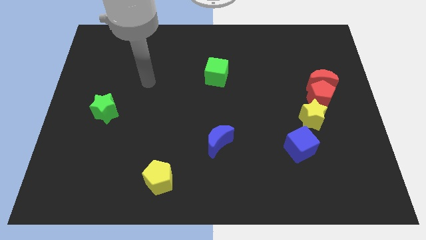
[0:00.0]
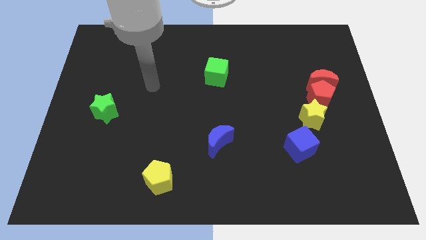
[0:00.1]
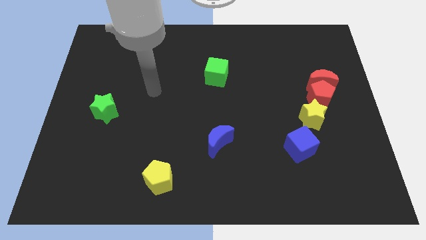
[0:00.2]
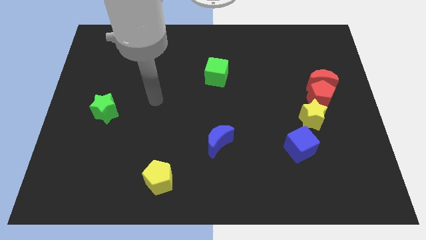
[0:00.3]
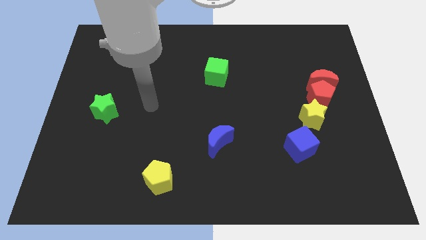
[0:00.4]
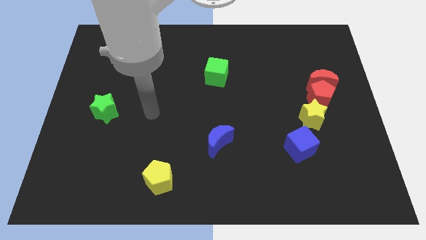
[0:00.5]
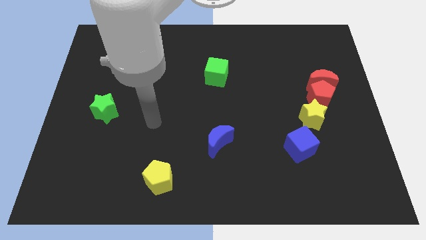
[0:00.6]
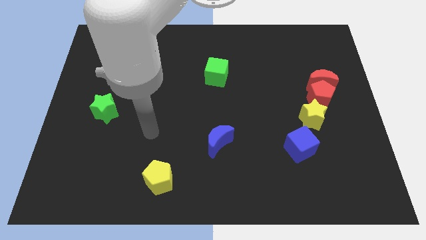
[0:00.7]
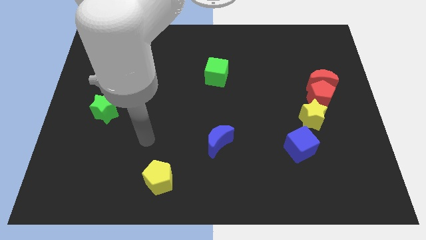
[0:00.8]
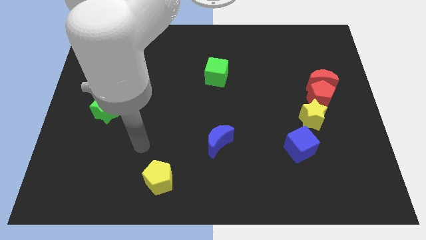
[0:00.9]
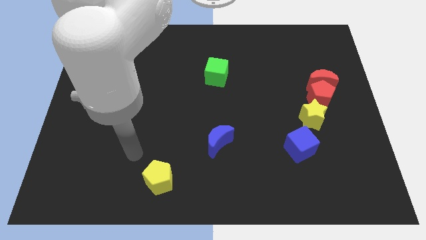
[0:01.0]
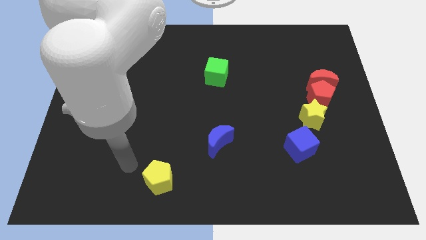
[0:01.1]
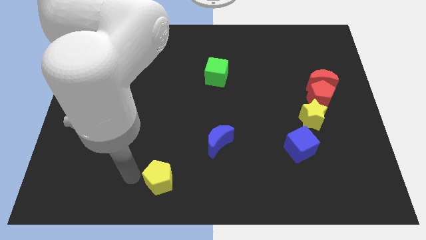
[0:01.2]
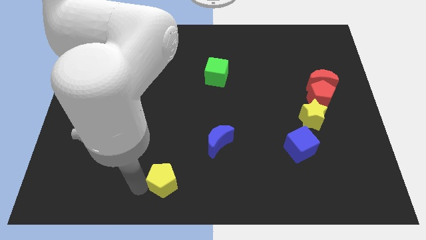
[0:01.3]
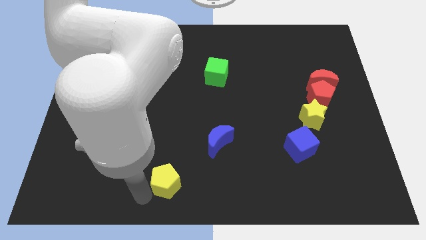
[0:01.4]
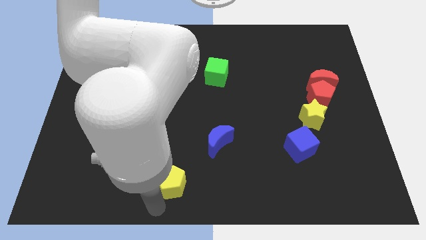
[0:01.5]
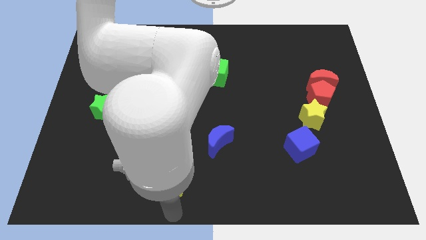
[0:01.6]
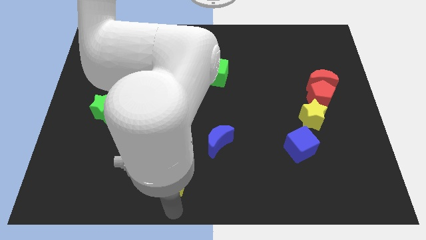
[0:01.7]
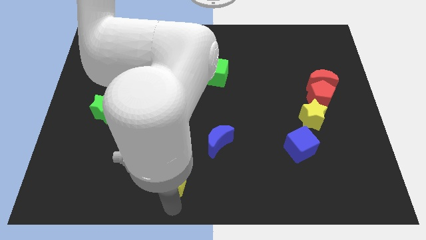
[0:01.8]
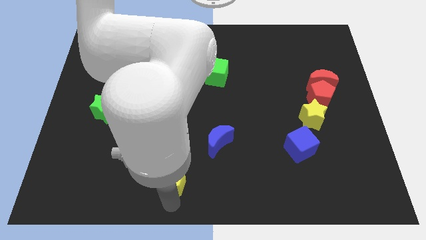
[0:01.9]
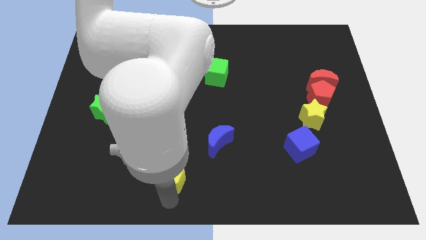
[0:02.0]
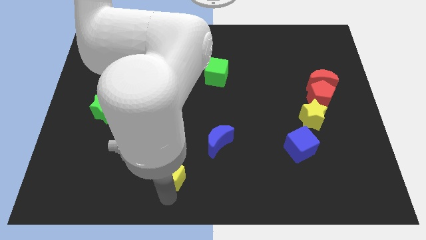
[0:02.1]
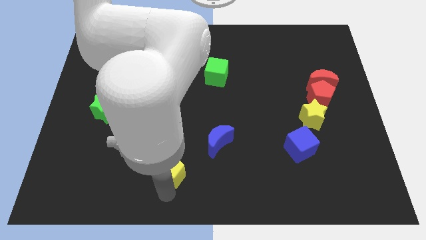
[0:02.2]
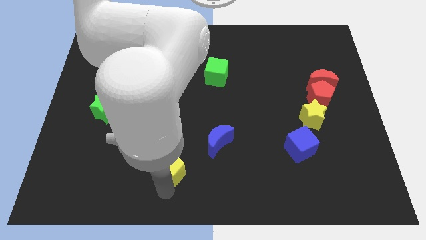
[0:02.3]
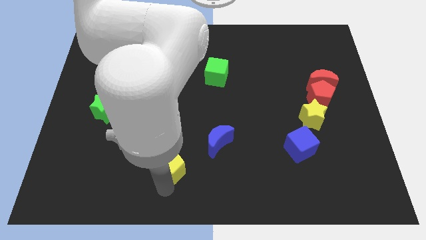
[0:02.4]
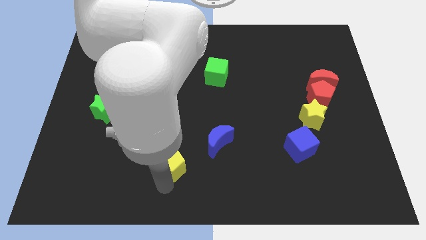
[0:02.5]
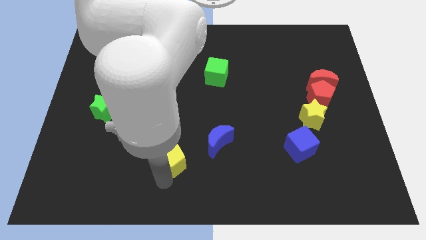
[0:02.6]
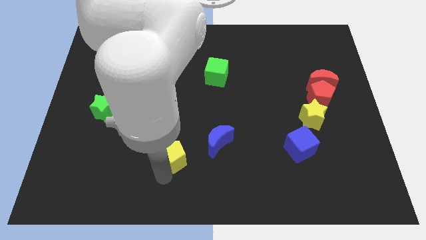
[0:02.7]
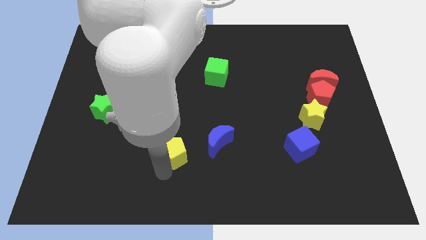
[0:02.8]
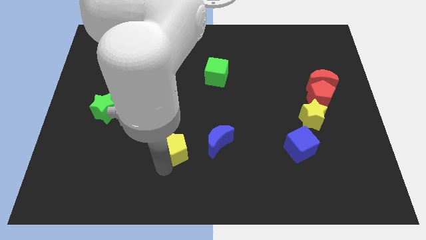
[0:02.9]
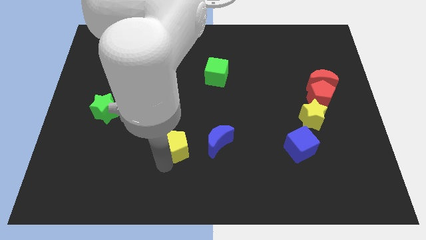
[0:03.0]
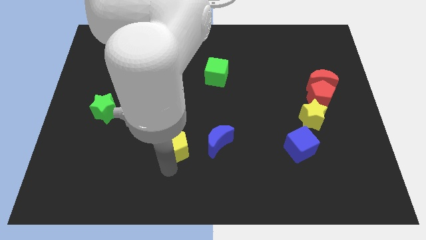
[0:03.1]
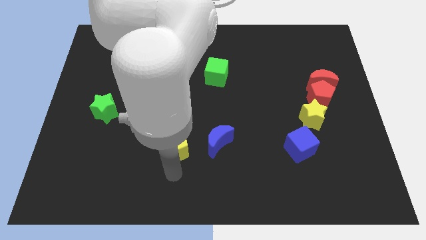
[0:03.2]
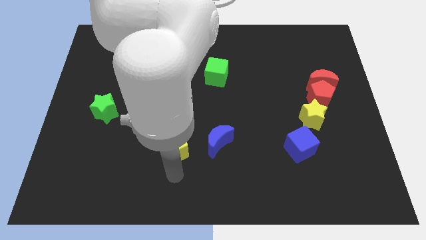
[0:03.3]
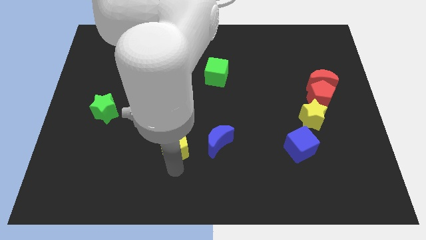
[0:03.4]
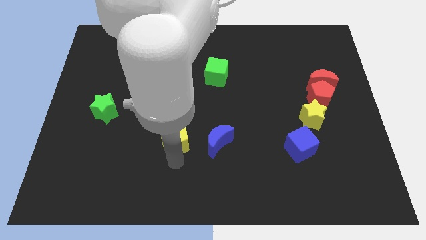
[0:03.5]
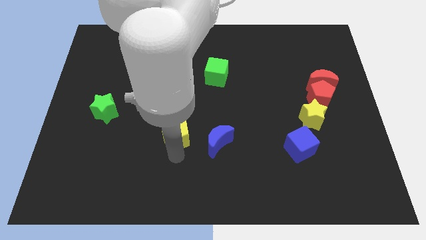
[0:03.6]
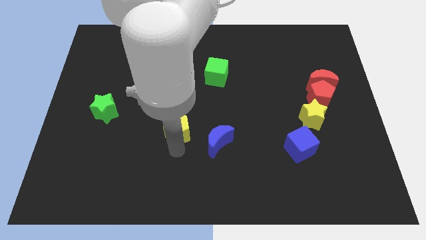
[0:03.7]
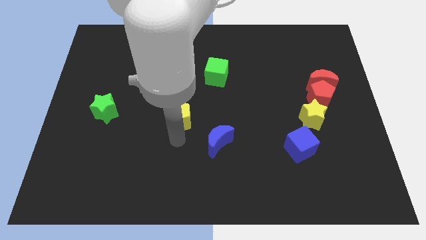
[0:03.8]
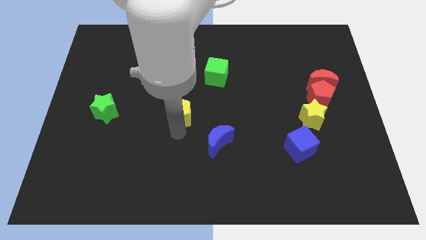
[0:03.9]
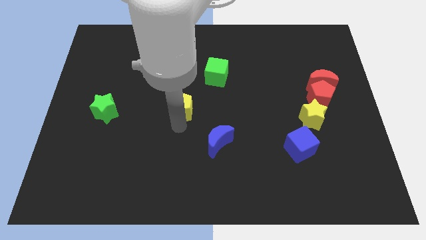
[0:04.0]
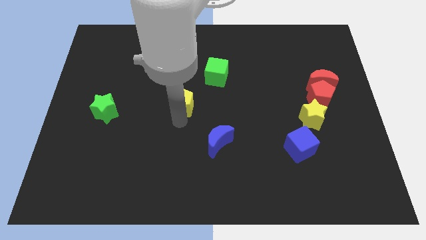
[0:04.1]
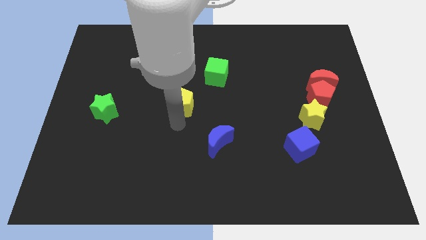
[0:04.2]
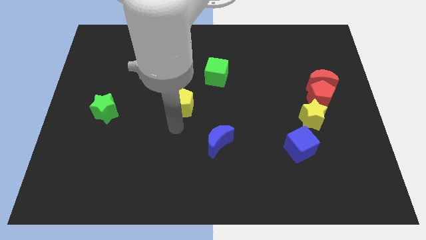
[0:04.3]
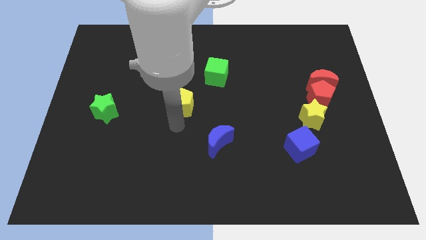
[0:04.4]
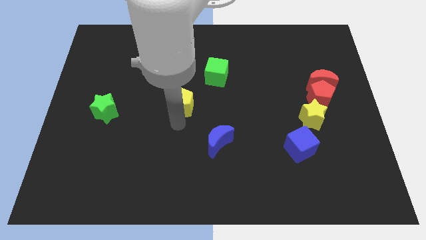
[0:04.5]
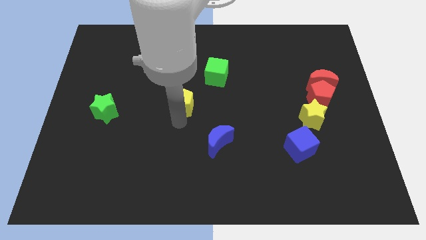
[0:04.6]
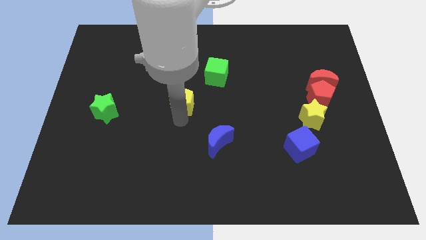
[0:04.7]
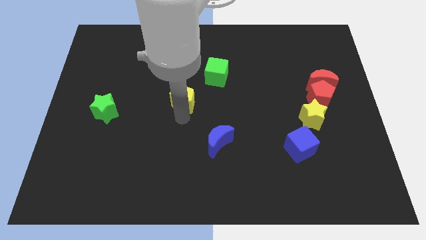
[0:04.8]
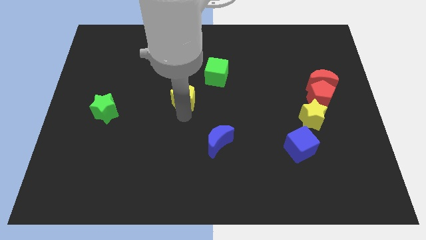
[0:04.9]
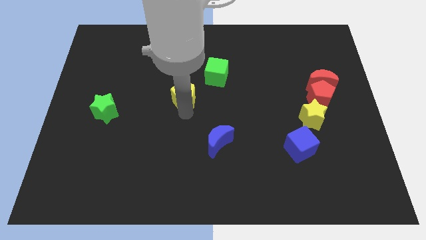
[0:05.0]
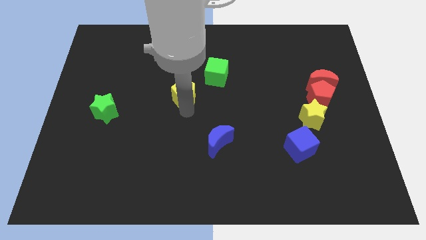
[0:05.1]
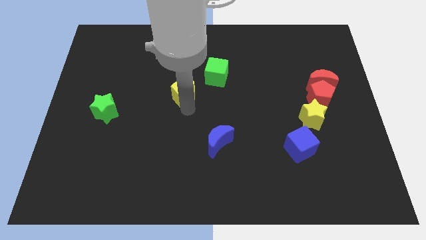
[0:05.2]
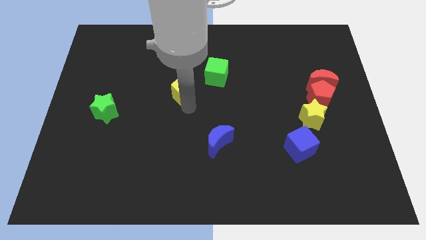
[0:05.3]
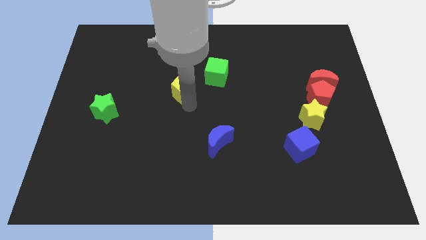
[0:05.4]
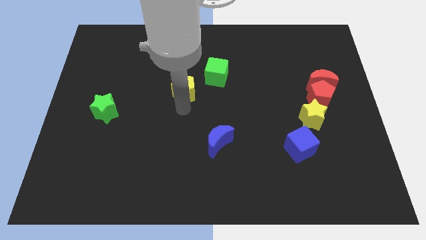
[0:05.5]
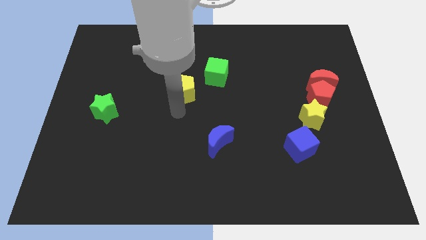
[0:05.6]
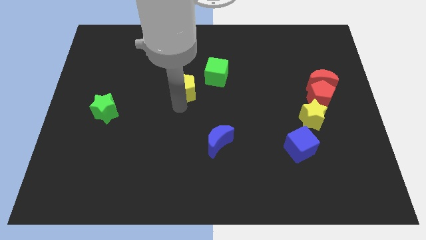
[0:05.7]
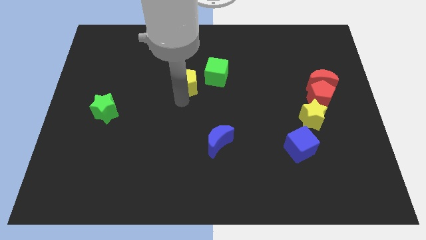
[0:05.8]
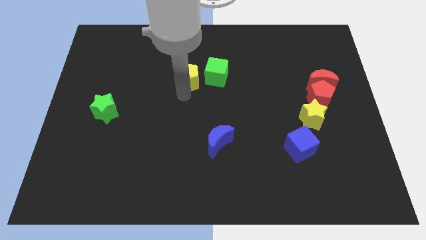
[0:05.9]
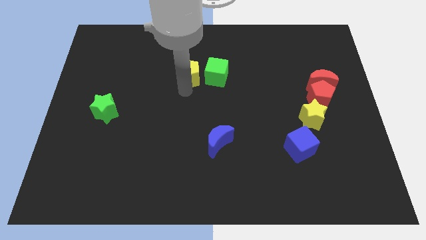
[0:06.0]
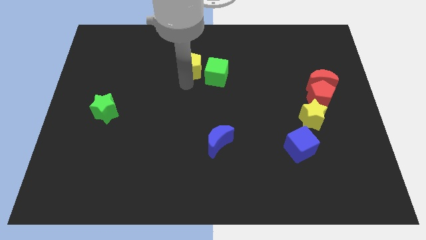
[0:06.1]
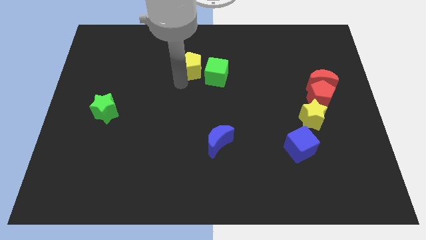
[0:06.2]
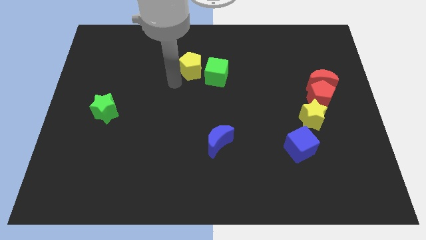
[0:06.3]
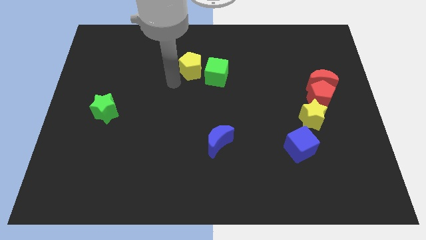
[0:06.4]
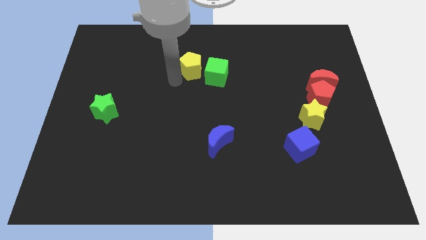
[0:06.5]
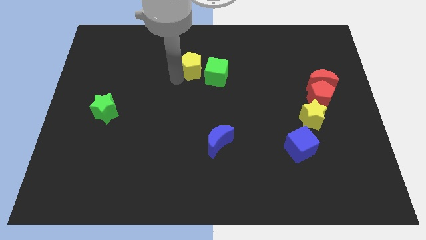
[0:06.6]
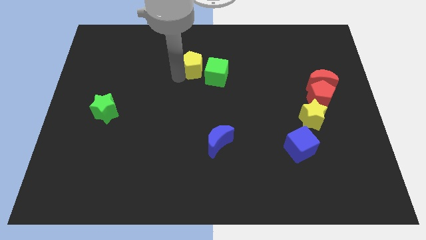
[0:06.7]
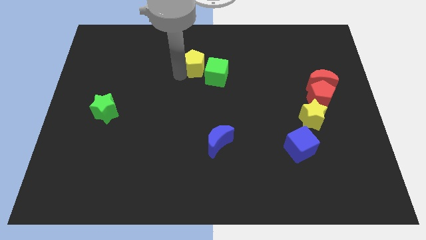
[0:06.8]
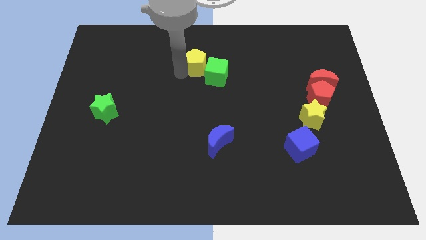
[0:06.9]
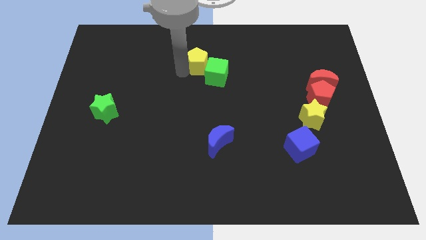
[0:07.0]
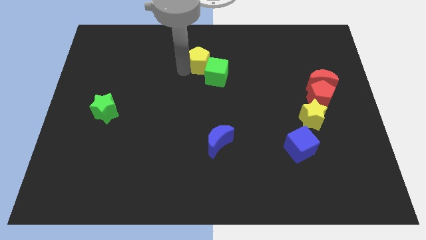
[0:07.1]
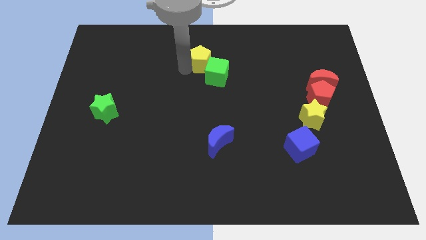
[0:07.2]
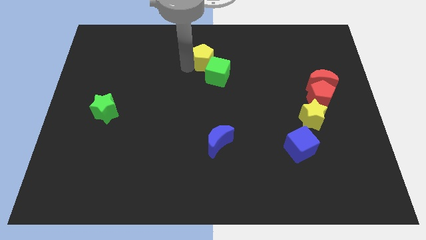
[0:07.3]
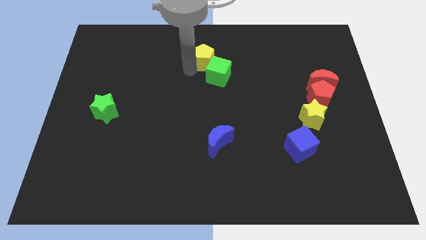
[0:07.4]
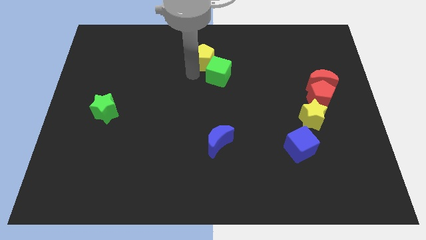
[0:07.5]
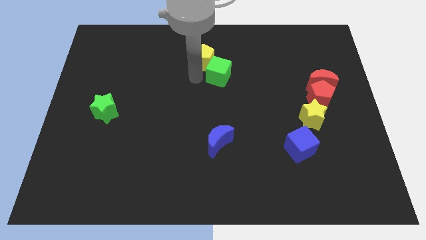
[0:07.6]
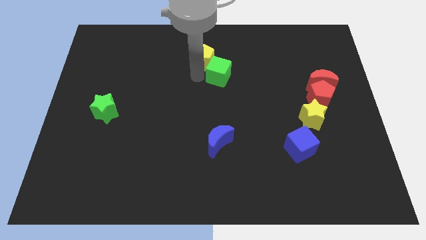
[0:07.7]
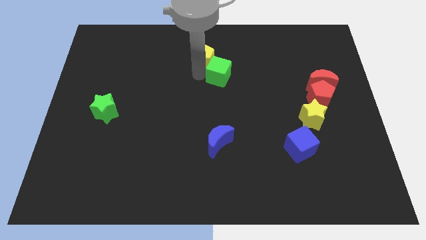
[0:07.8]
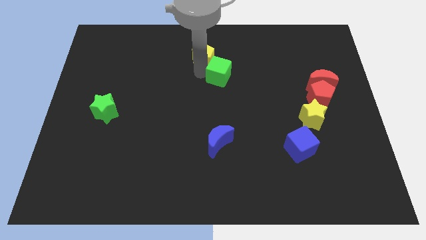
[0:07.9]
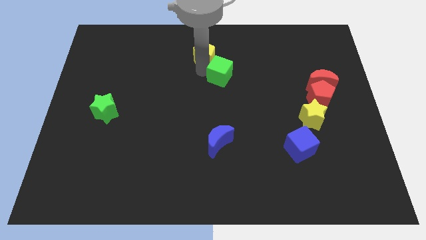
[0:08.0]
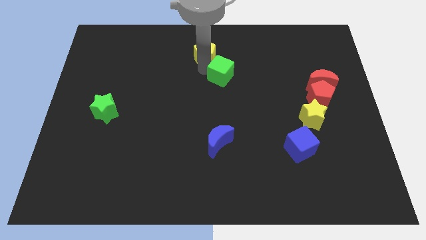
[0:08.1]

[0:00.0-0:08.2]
slide the yellow pentagon to the top side
